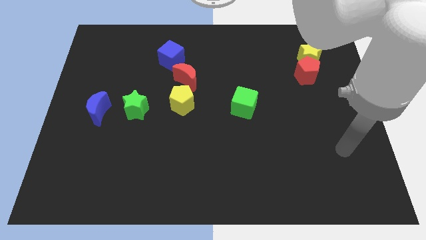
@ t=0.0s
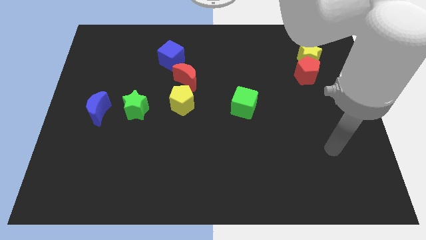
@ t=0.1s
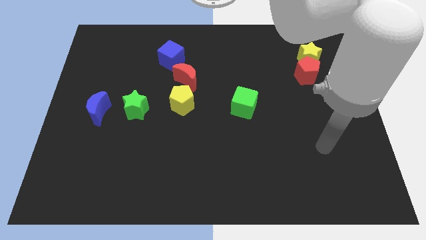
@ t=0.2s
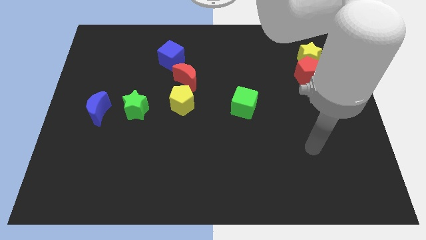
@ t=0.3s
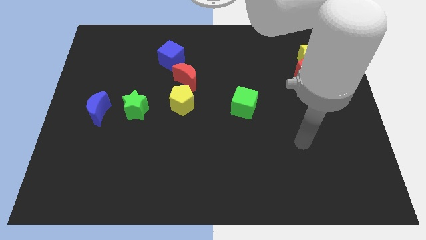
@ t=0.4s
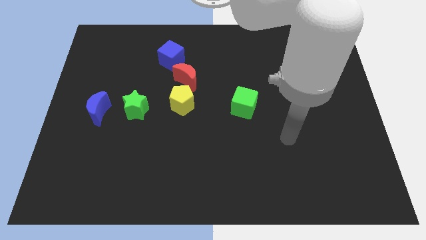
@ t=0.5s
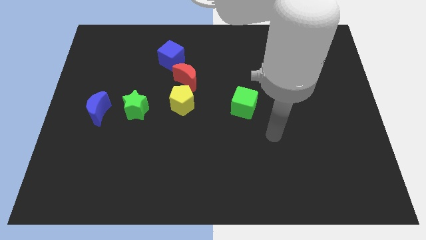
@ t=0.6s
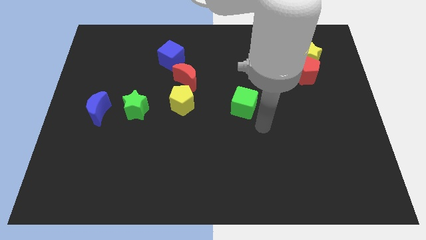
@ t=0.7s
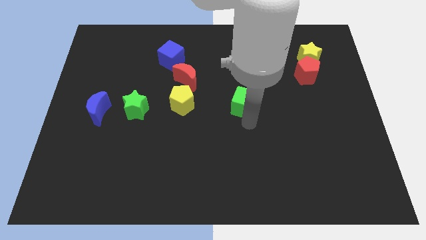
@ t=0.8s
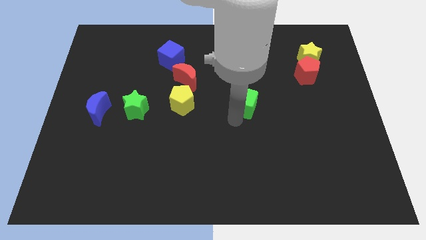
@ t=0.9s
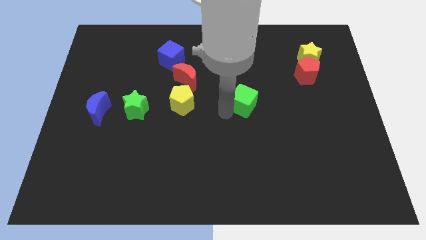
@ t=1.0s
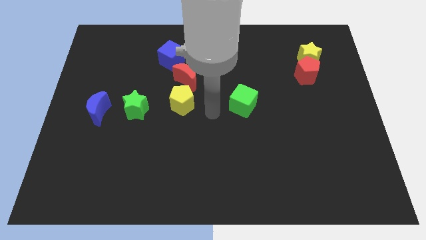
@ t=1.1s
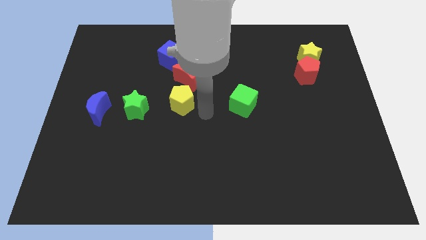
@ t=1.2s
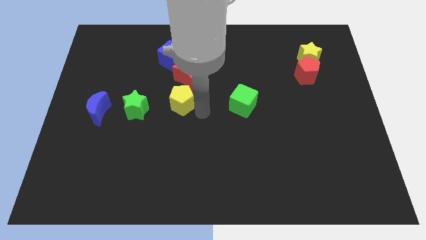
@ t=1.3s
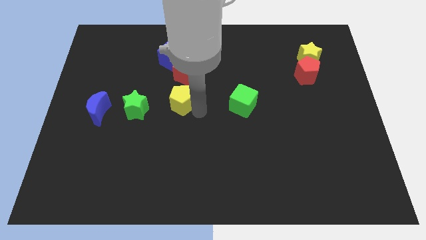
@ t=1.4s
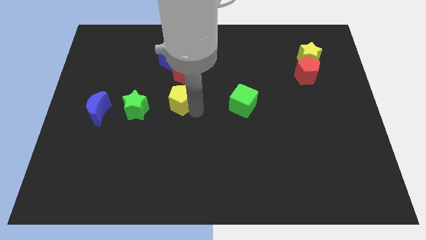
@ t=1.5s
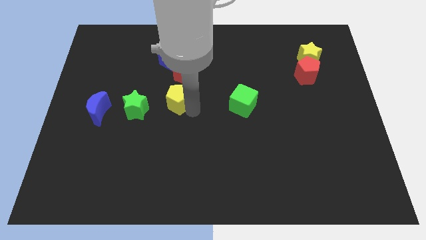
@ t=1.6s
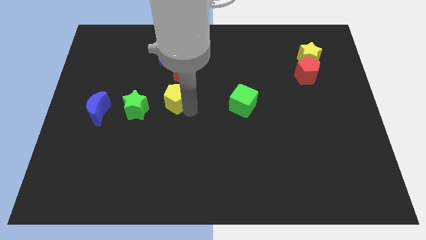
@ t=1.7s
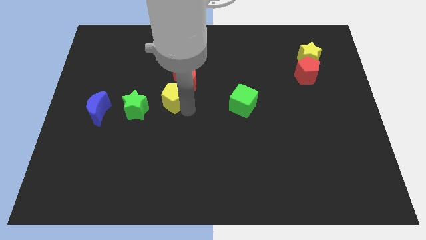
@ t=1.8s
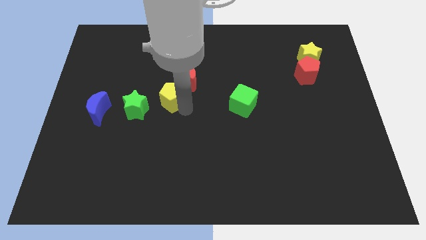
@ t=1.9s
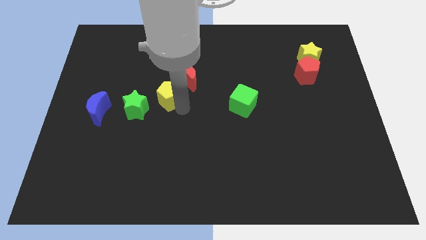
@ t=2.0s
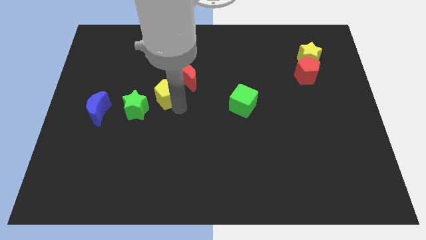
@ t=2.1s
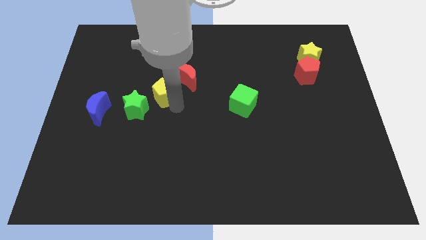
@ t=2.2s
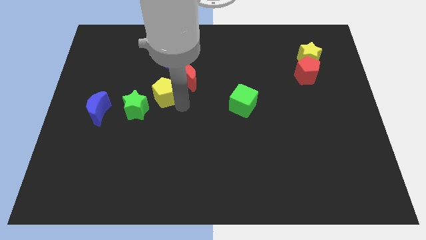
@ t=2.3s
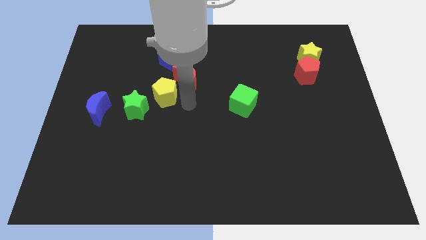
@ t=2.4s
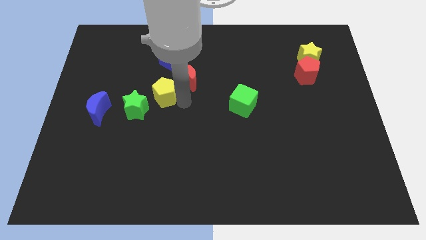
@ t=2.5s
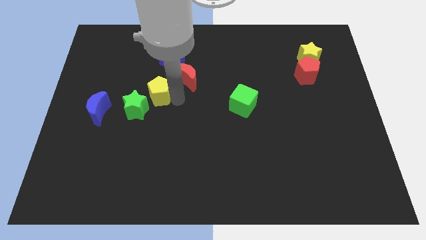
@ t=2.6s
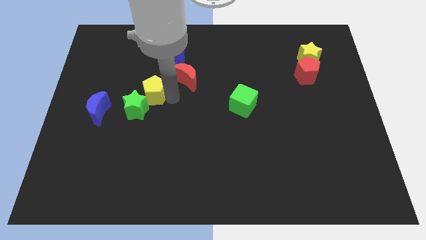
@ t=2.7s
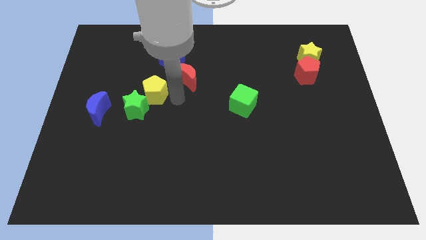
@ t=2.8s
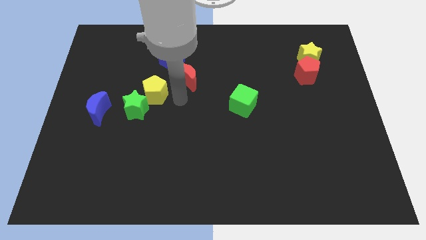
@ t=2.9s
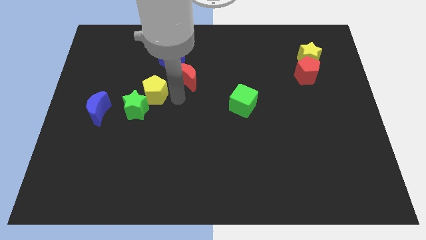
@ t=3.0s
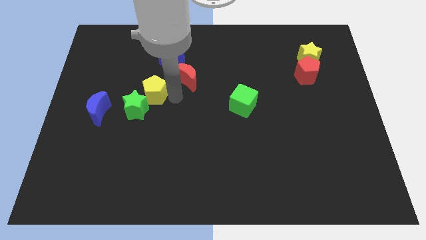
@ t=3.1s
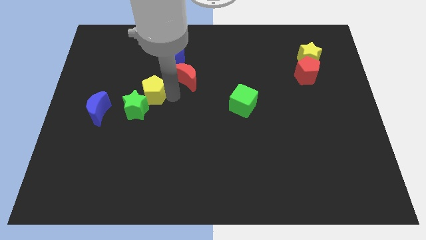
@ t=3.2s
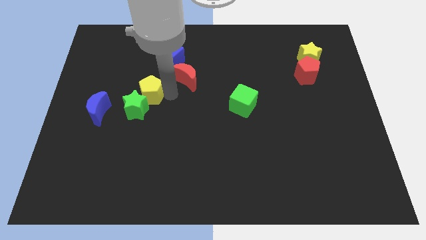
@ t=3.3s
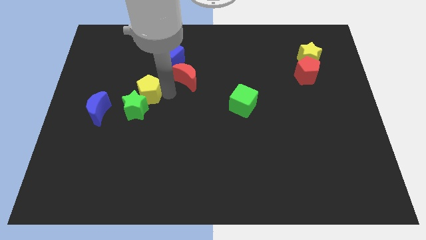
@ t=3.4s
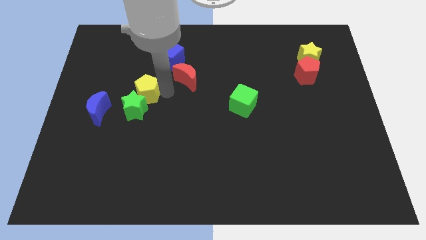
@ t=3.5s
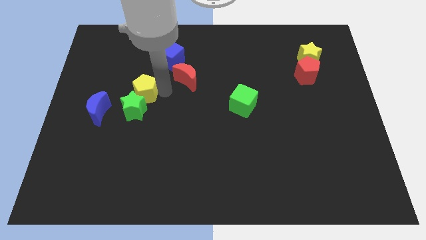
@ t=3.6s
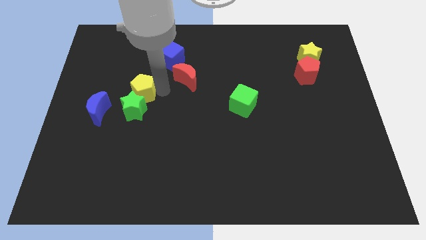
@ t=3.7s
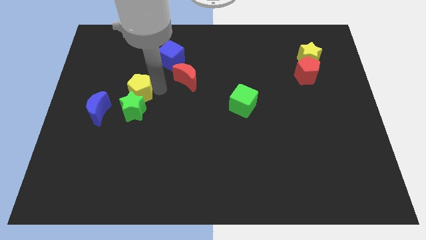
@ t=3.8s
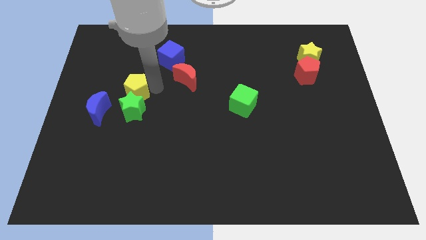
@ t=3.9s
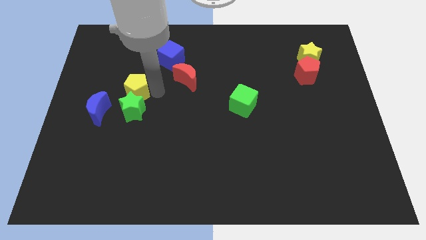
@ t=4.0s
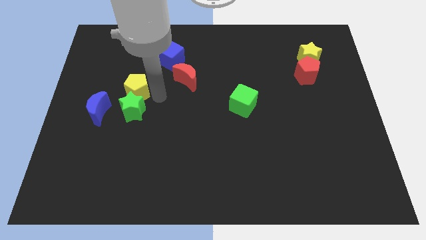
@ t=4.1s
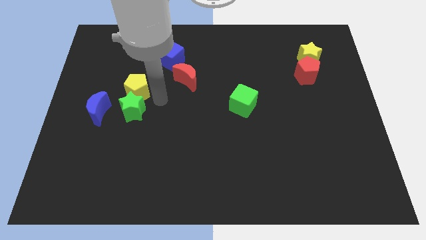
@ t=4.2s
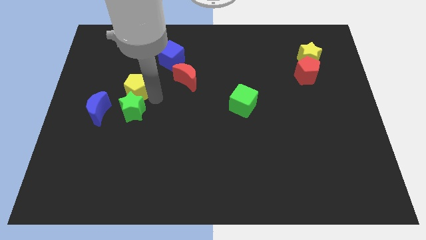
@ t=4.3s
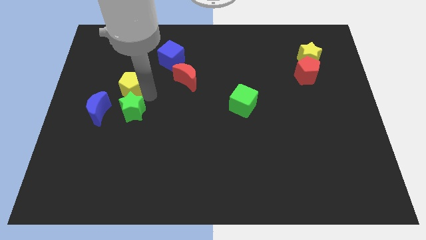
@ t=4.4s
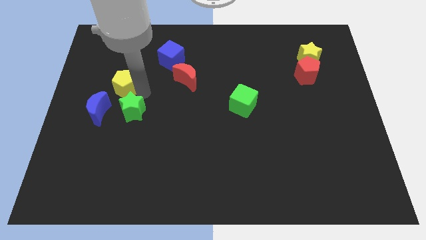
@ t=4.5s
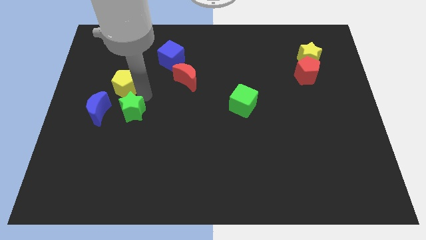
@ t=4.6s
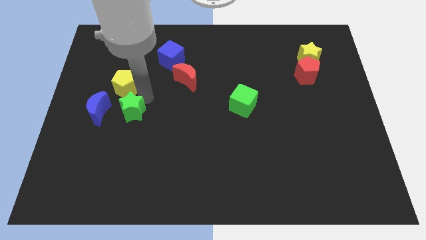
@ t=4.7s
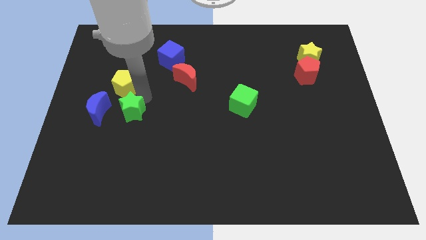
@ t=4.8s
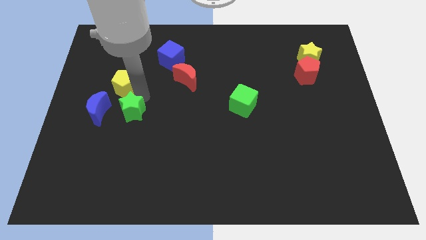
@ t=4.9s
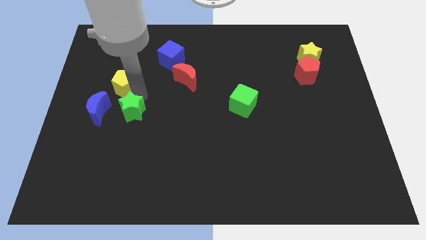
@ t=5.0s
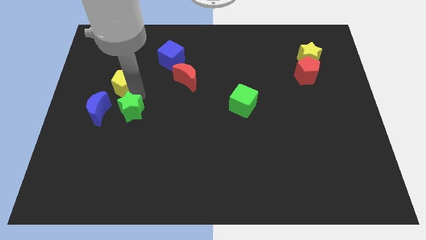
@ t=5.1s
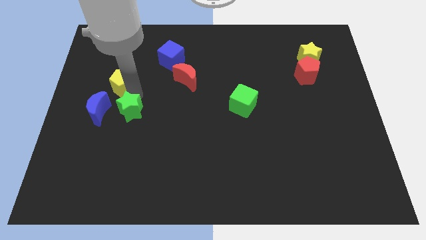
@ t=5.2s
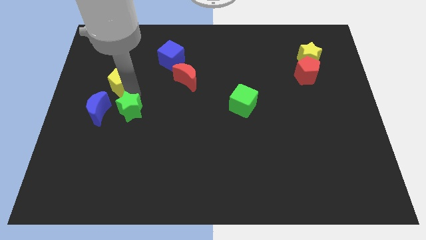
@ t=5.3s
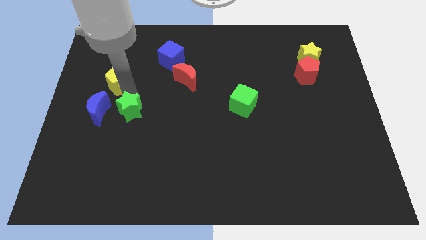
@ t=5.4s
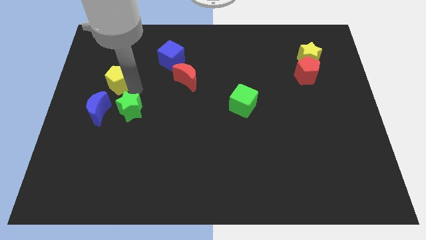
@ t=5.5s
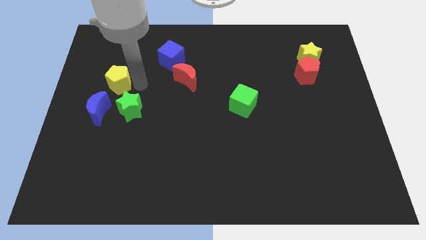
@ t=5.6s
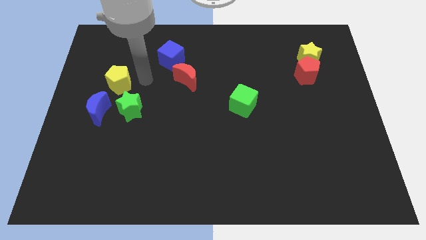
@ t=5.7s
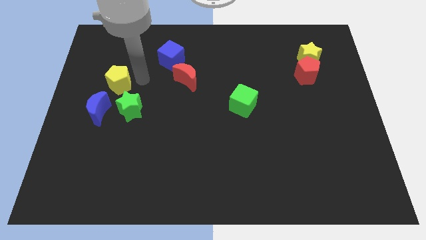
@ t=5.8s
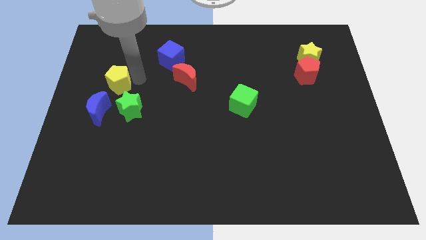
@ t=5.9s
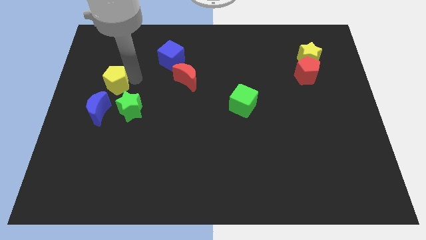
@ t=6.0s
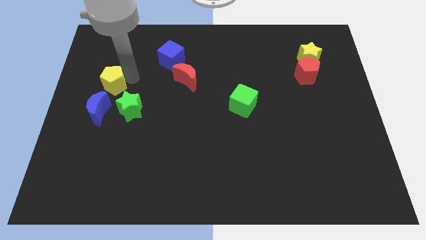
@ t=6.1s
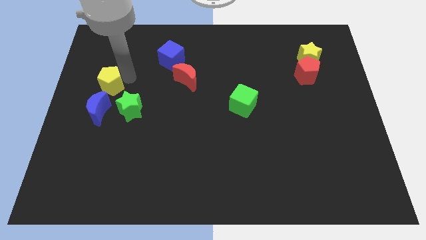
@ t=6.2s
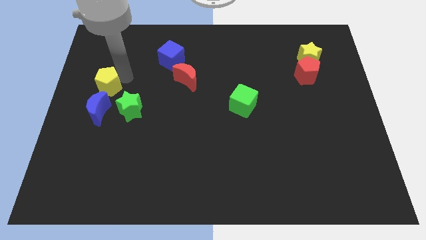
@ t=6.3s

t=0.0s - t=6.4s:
put the yellow pentagon to the left side
